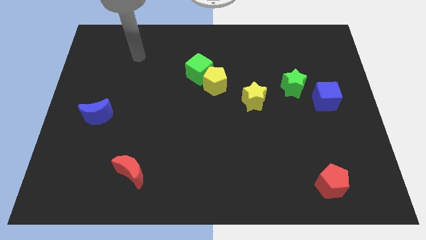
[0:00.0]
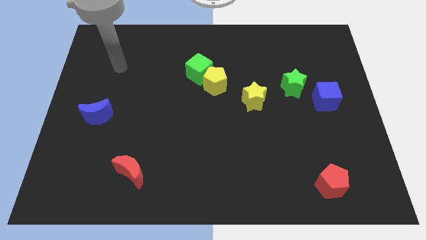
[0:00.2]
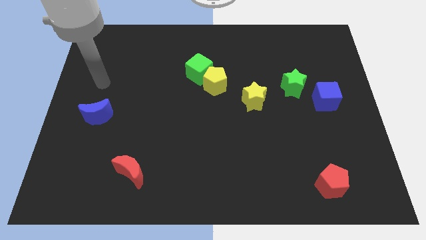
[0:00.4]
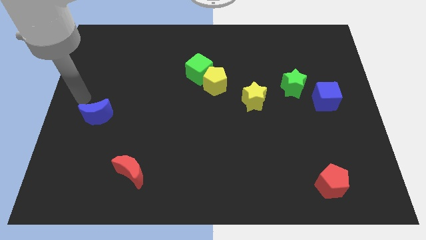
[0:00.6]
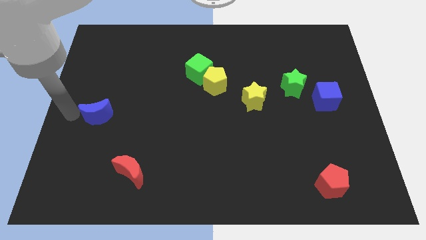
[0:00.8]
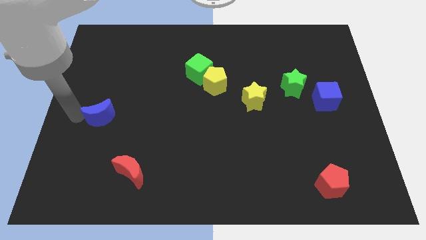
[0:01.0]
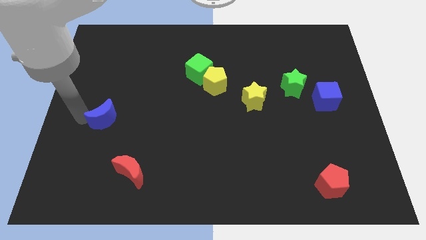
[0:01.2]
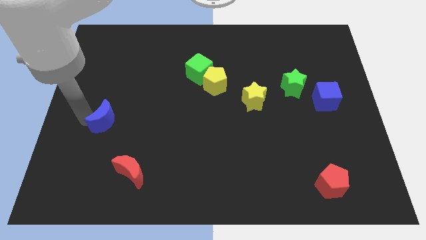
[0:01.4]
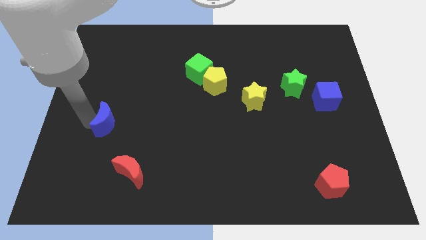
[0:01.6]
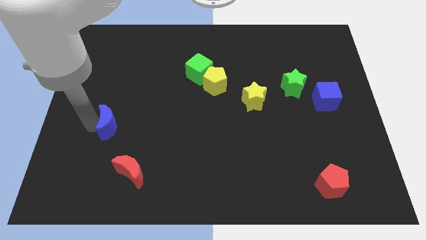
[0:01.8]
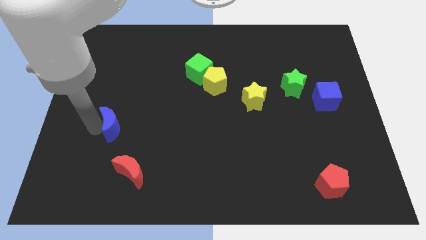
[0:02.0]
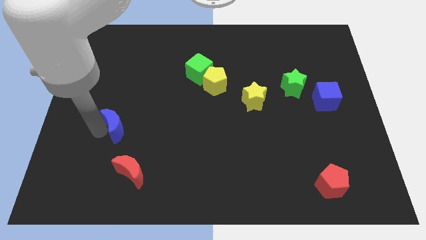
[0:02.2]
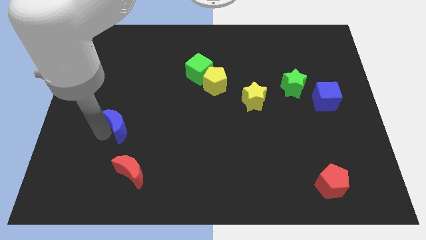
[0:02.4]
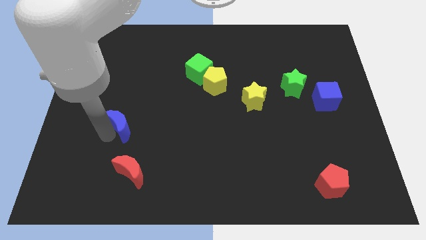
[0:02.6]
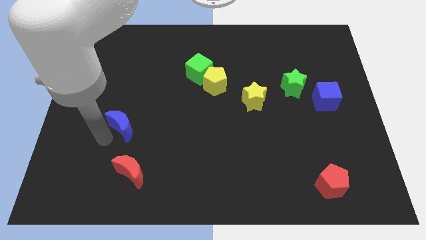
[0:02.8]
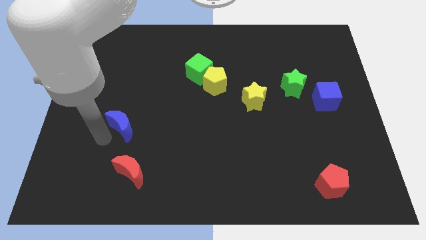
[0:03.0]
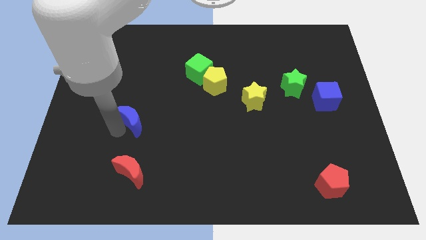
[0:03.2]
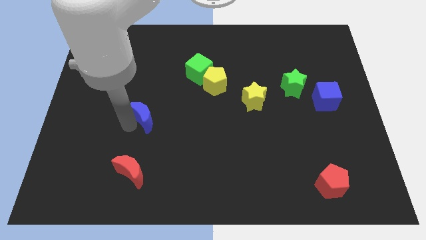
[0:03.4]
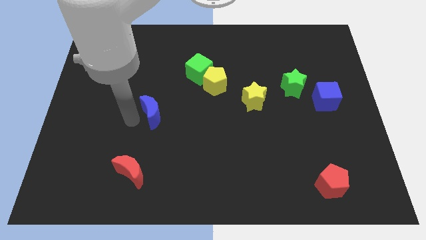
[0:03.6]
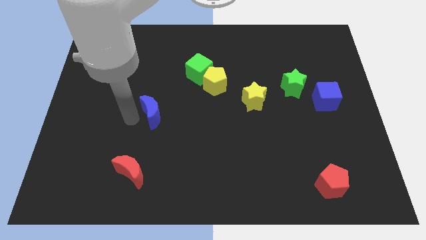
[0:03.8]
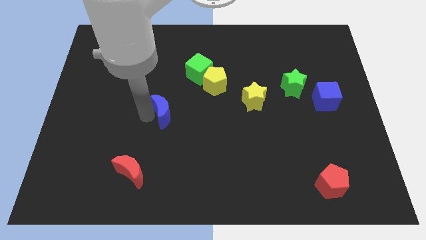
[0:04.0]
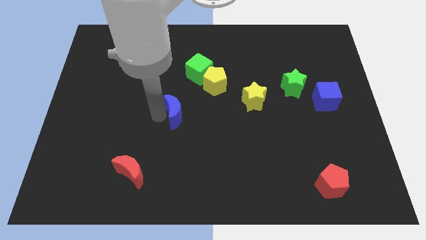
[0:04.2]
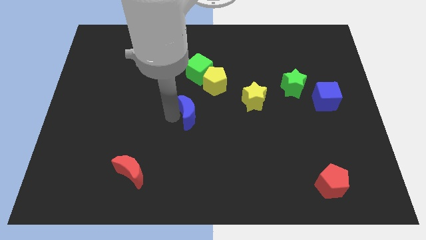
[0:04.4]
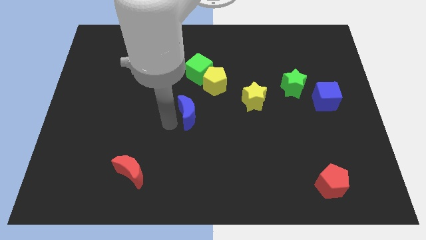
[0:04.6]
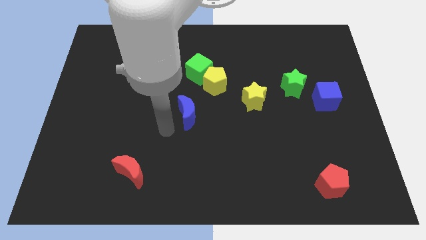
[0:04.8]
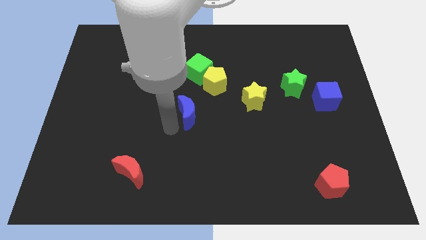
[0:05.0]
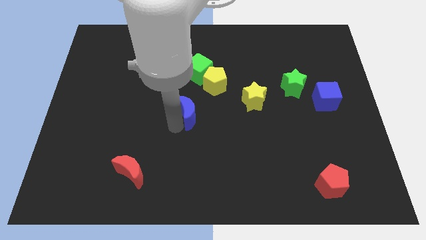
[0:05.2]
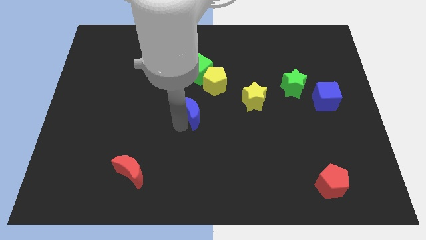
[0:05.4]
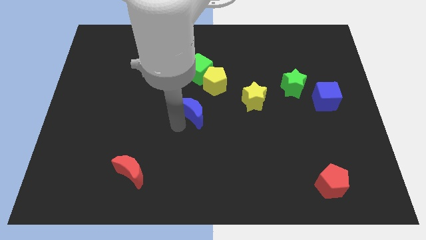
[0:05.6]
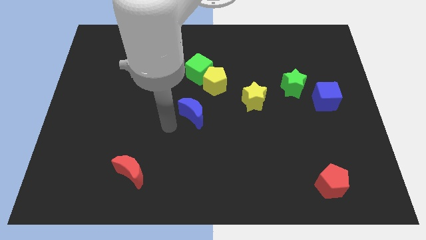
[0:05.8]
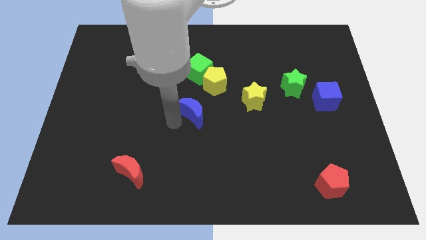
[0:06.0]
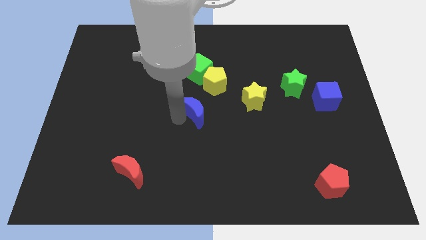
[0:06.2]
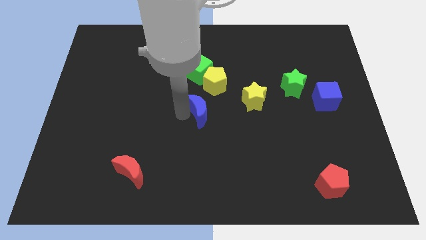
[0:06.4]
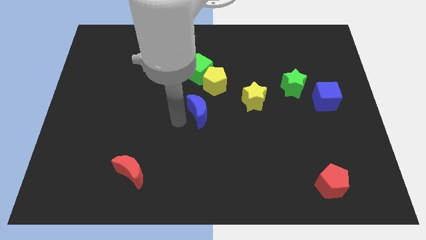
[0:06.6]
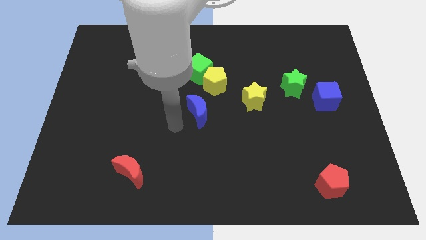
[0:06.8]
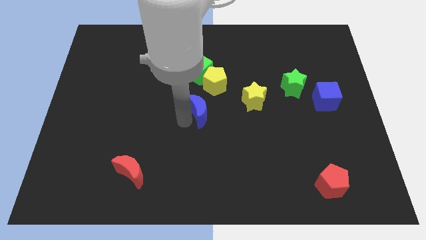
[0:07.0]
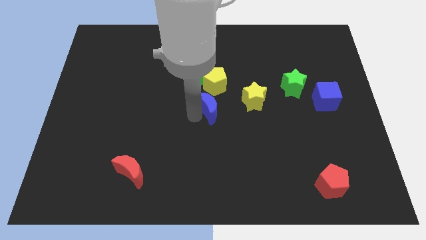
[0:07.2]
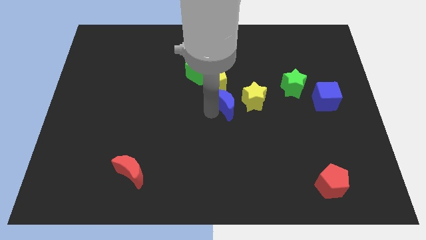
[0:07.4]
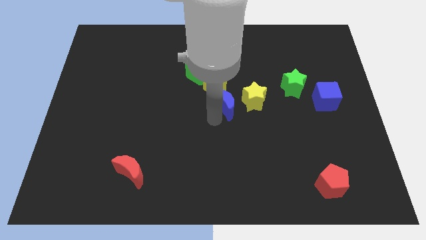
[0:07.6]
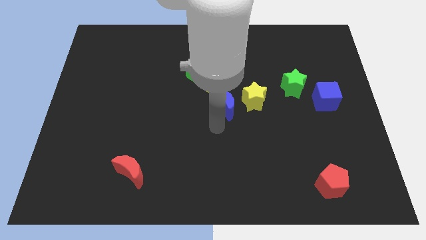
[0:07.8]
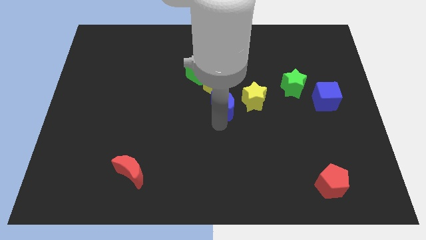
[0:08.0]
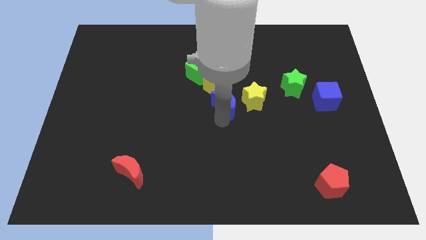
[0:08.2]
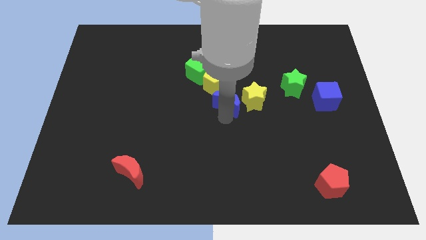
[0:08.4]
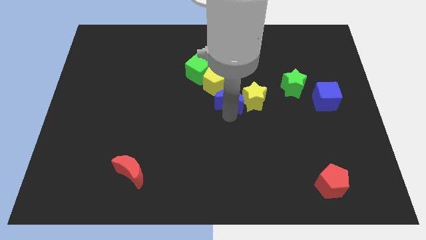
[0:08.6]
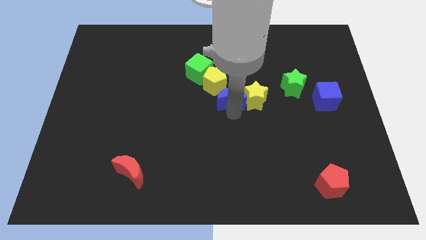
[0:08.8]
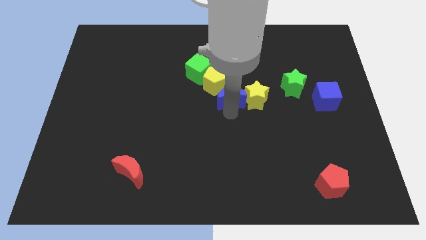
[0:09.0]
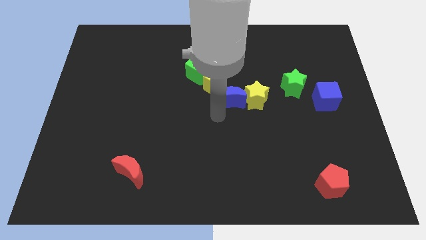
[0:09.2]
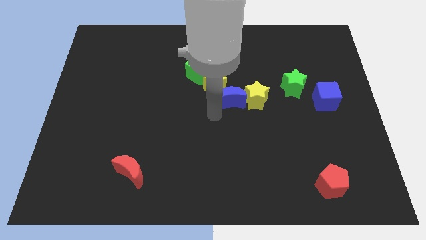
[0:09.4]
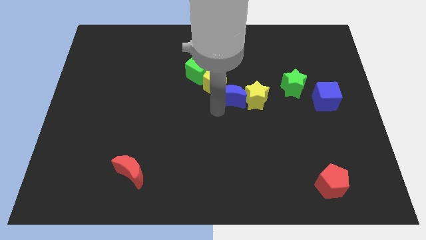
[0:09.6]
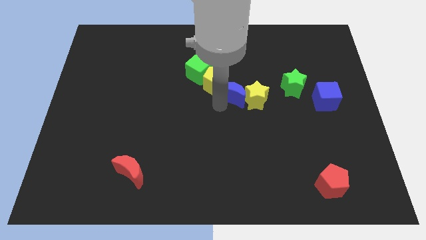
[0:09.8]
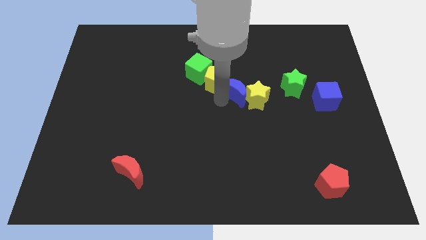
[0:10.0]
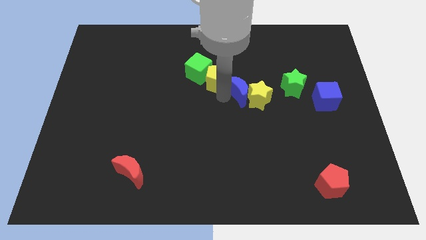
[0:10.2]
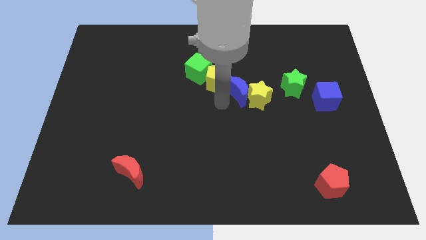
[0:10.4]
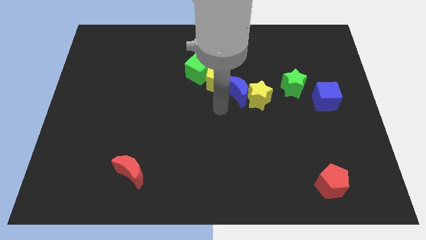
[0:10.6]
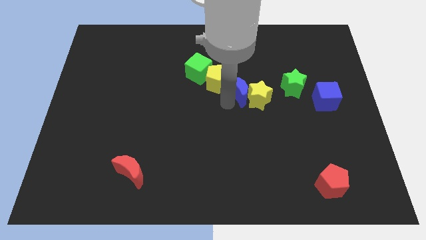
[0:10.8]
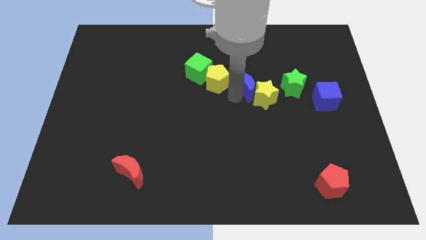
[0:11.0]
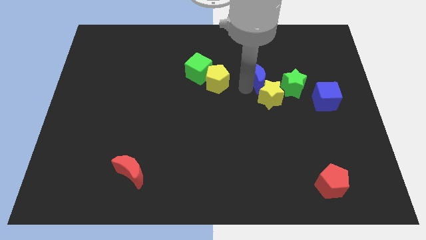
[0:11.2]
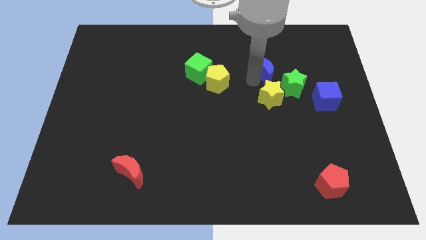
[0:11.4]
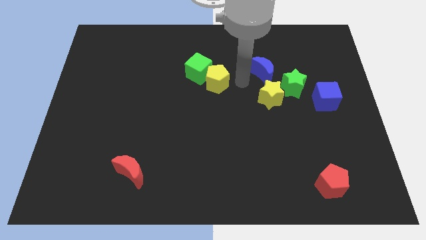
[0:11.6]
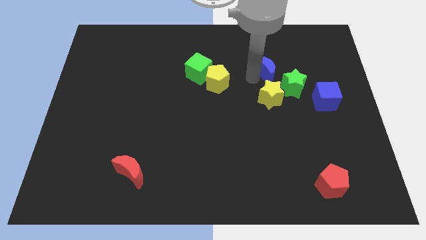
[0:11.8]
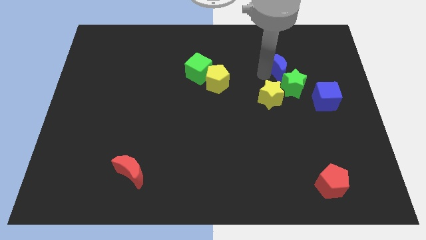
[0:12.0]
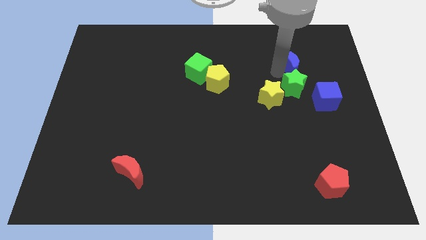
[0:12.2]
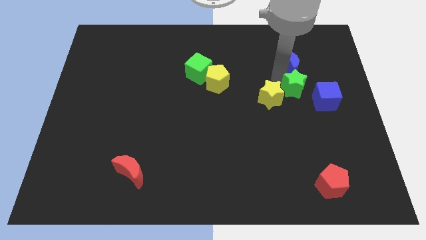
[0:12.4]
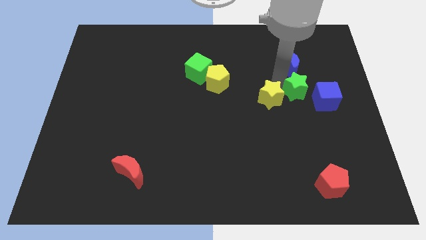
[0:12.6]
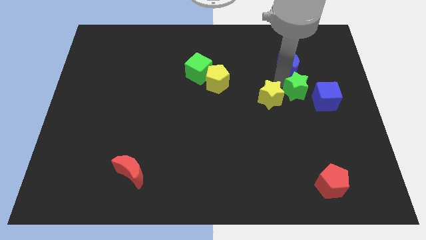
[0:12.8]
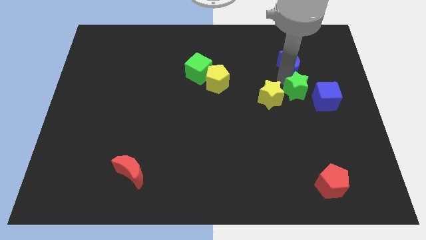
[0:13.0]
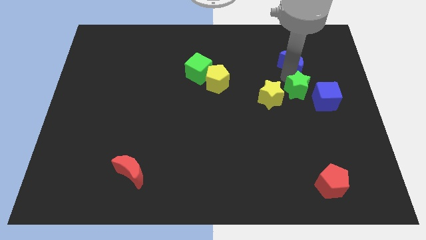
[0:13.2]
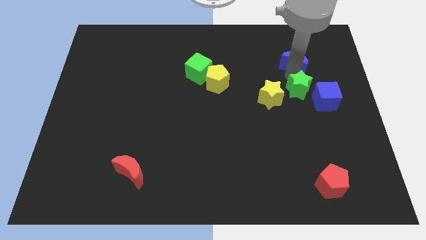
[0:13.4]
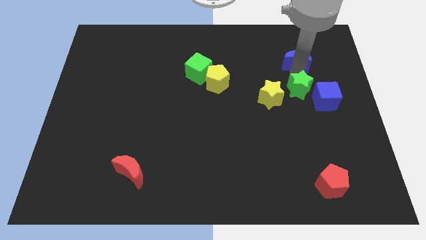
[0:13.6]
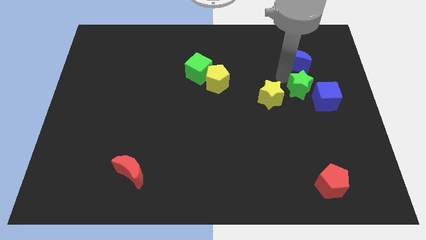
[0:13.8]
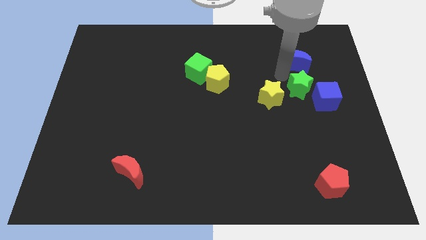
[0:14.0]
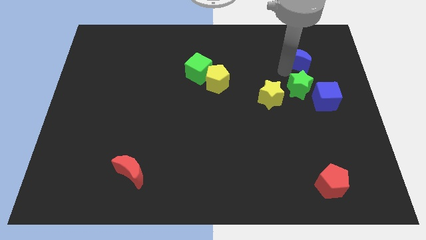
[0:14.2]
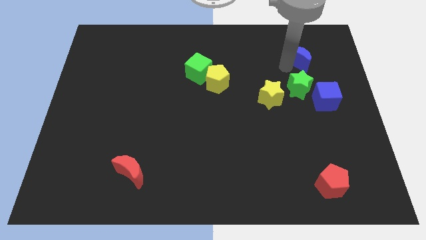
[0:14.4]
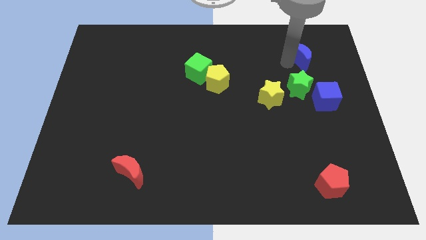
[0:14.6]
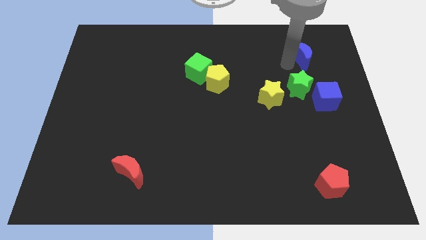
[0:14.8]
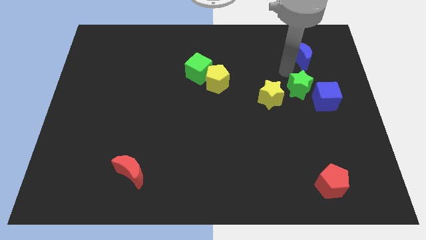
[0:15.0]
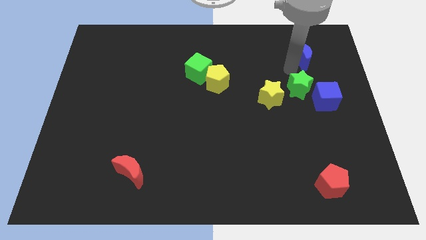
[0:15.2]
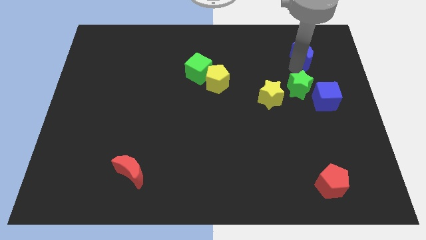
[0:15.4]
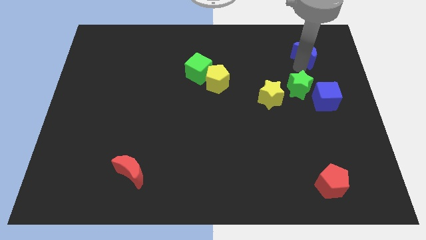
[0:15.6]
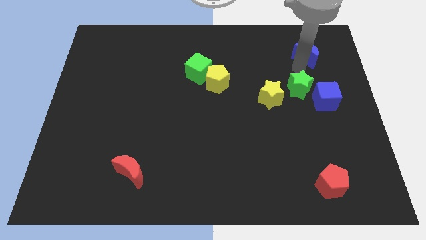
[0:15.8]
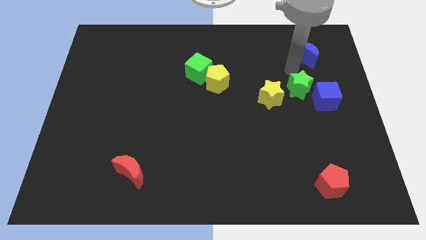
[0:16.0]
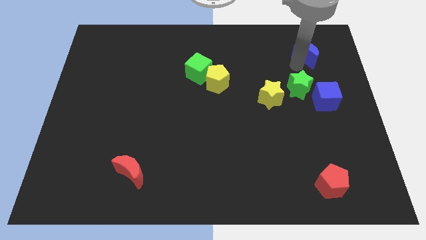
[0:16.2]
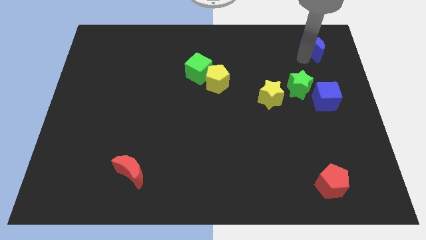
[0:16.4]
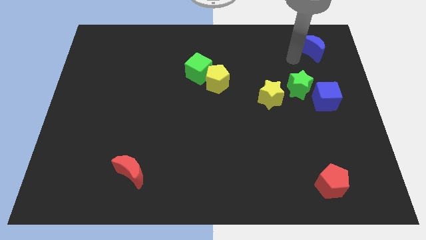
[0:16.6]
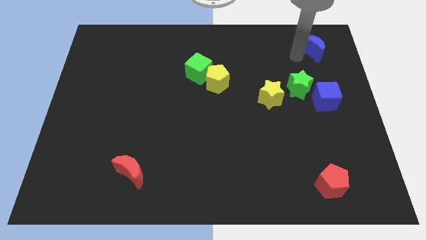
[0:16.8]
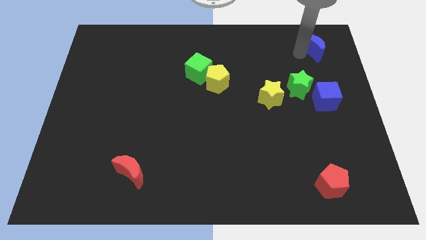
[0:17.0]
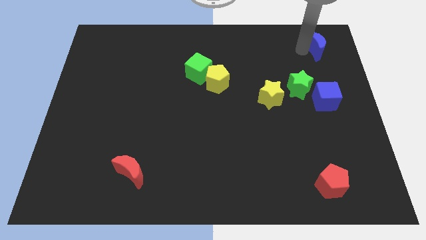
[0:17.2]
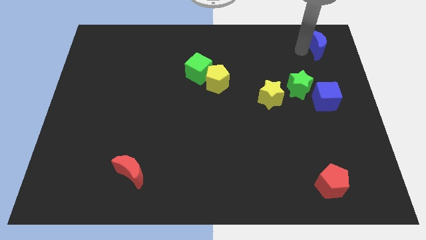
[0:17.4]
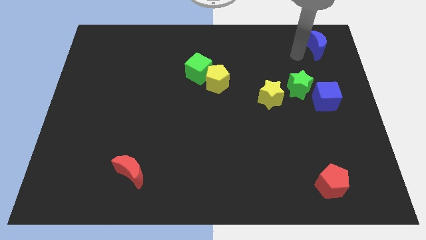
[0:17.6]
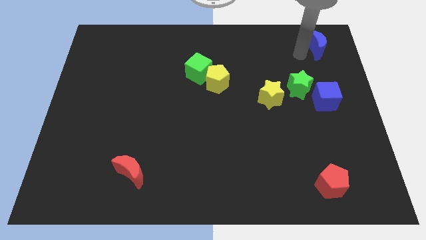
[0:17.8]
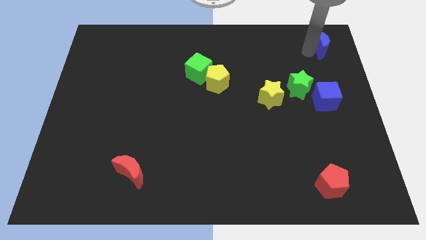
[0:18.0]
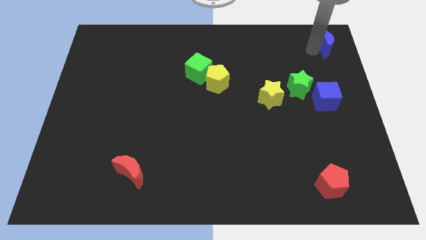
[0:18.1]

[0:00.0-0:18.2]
push the blue moon to the upper right corner
